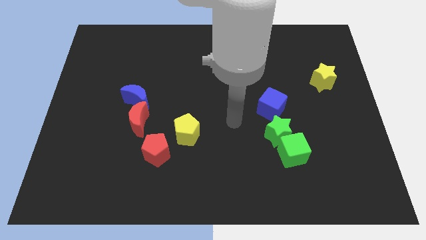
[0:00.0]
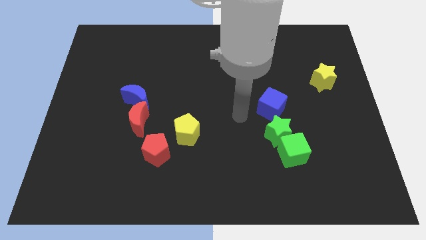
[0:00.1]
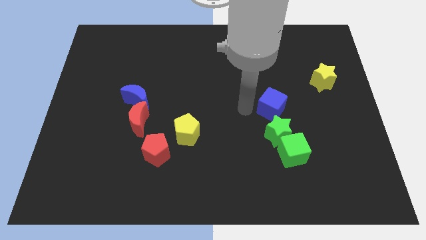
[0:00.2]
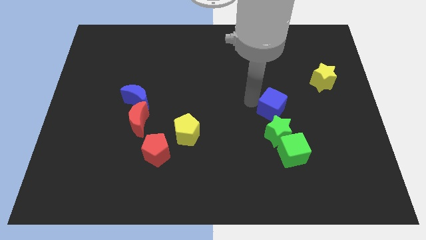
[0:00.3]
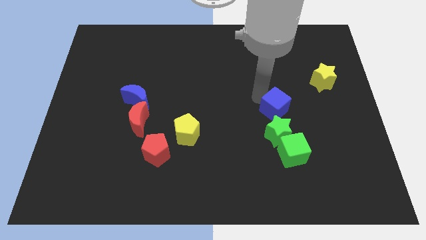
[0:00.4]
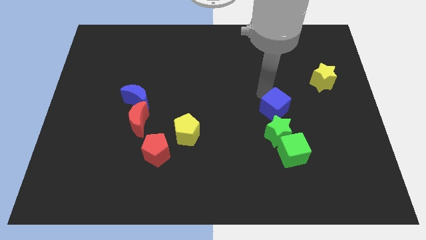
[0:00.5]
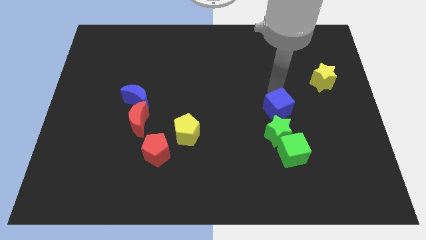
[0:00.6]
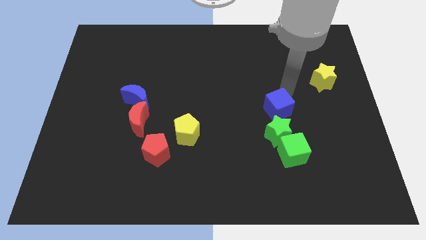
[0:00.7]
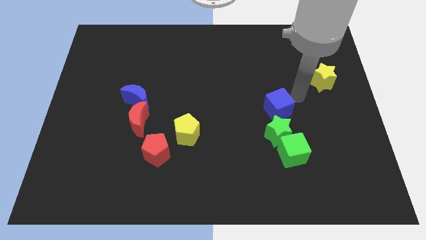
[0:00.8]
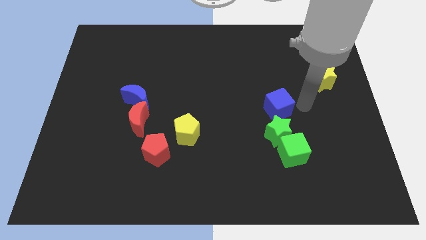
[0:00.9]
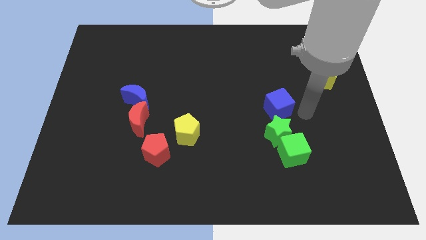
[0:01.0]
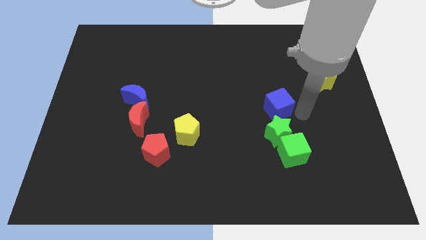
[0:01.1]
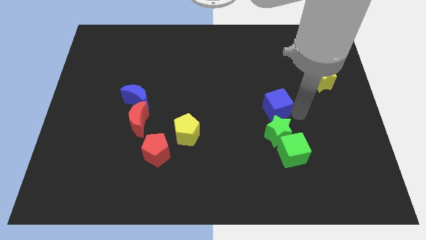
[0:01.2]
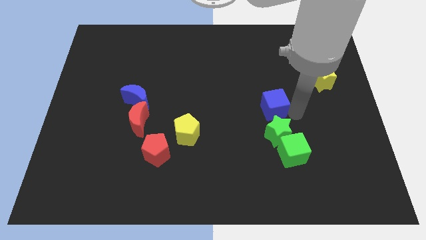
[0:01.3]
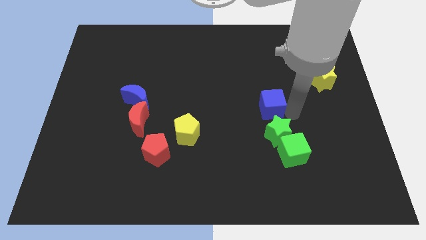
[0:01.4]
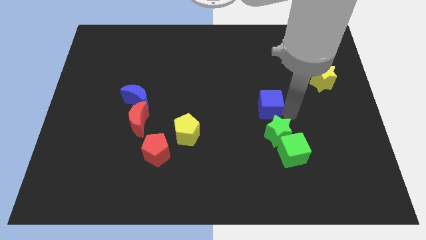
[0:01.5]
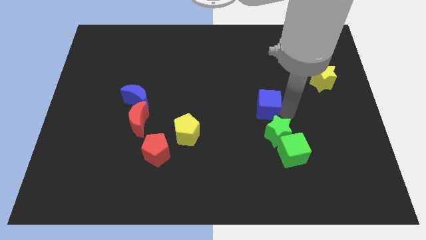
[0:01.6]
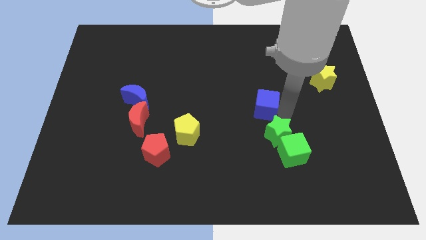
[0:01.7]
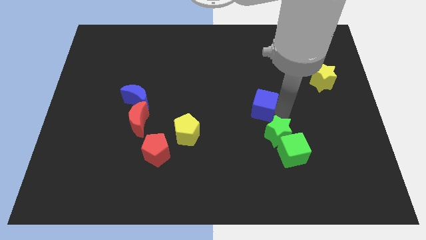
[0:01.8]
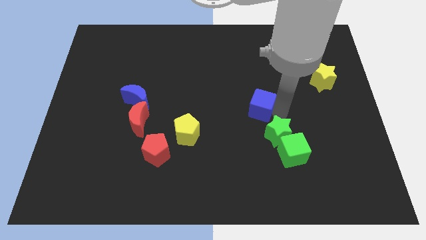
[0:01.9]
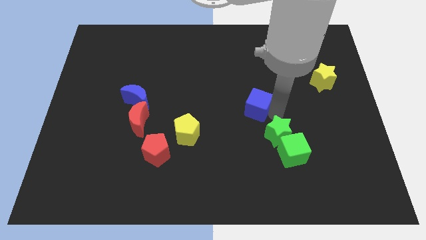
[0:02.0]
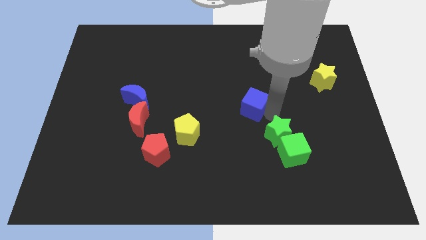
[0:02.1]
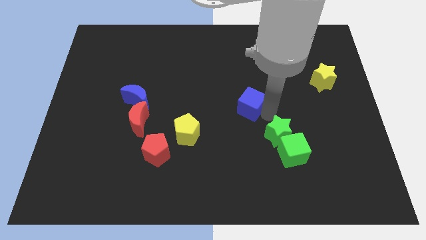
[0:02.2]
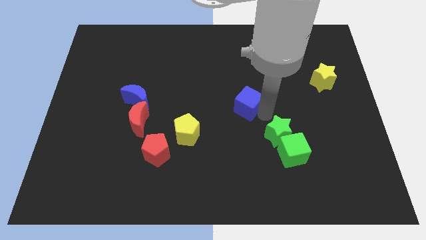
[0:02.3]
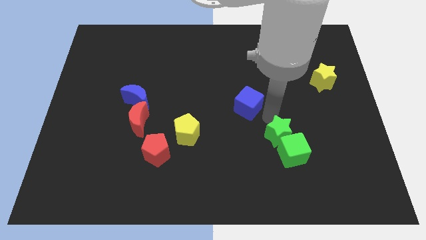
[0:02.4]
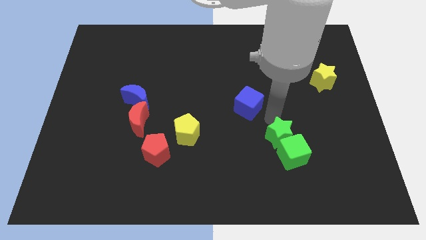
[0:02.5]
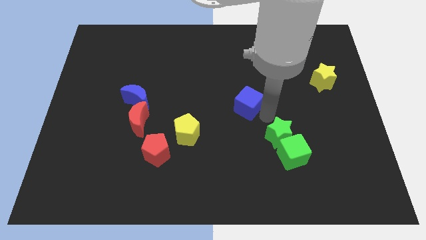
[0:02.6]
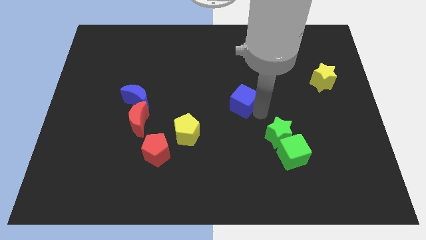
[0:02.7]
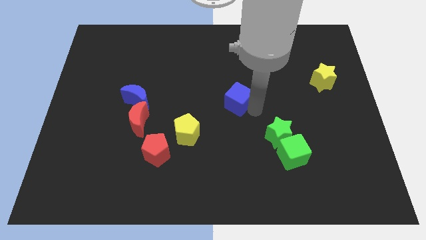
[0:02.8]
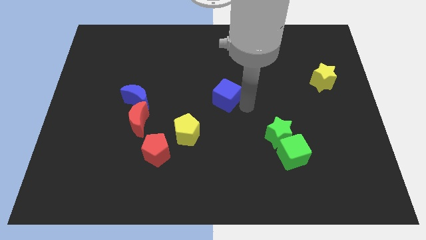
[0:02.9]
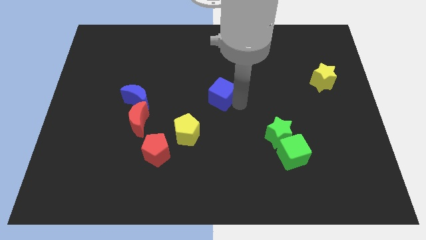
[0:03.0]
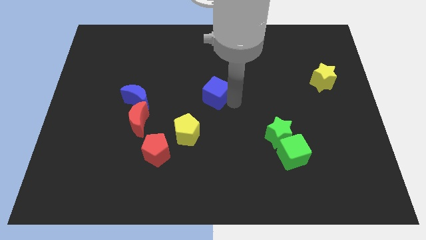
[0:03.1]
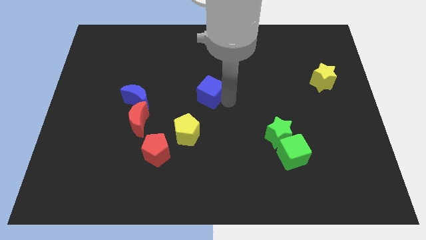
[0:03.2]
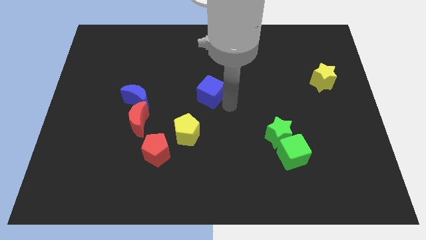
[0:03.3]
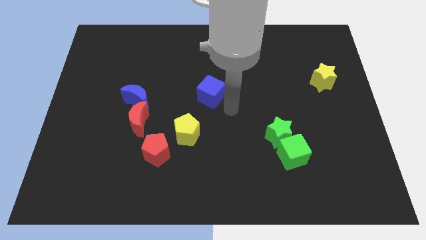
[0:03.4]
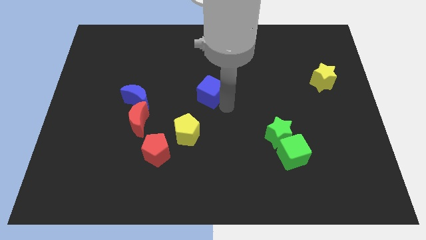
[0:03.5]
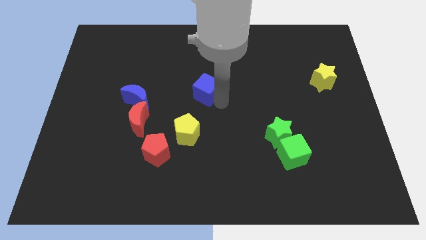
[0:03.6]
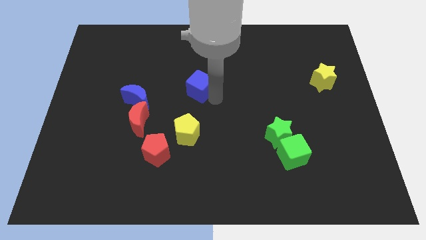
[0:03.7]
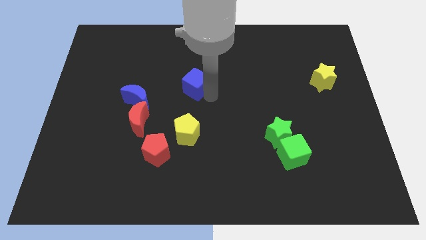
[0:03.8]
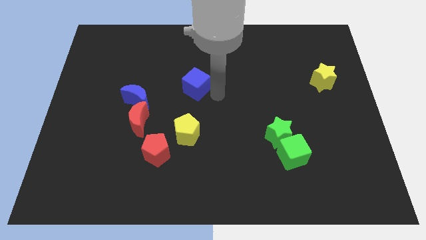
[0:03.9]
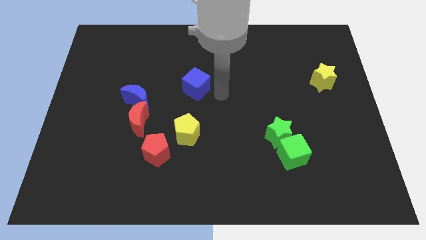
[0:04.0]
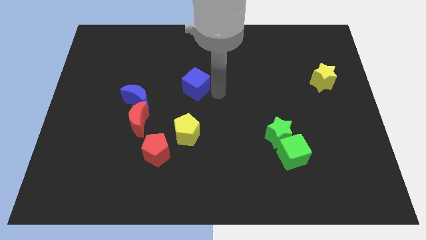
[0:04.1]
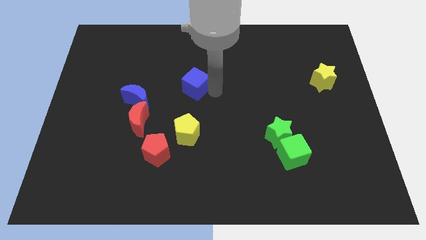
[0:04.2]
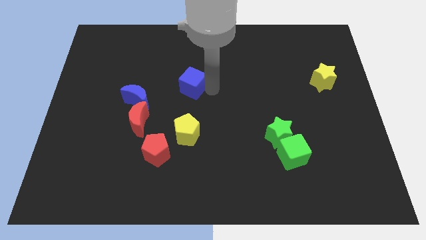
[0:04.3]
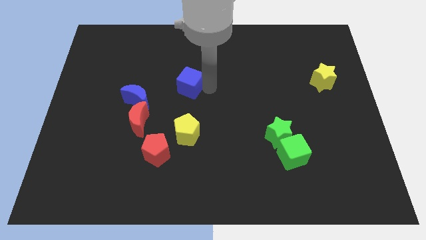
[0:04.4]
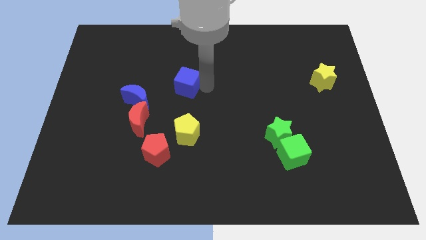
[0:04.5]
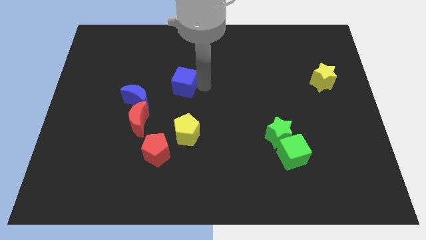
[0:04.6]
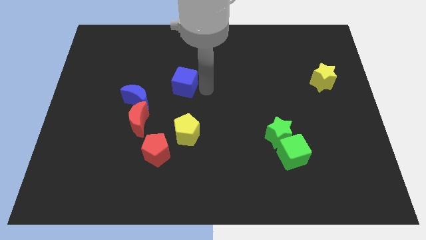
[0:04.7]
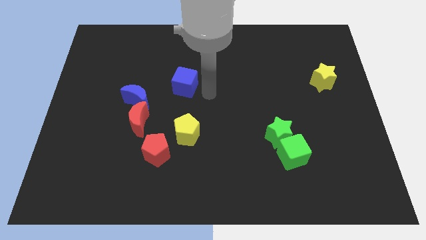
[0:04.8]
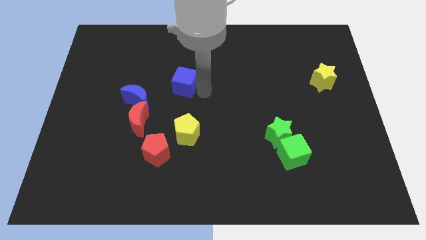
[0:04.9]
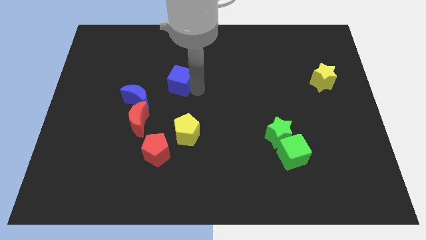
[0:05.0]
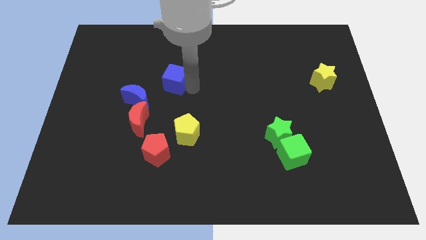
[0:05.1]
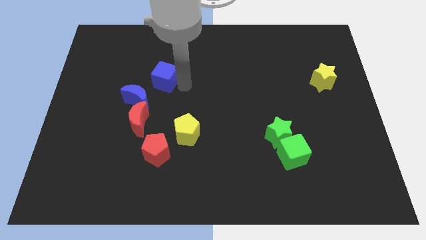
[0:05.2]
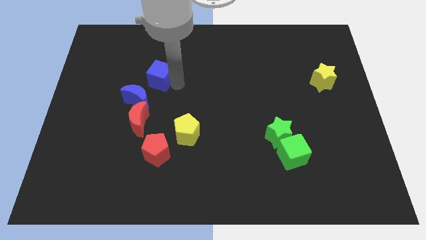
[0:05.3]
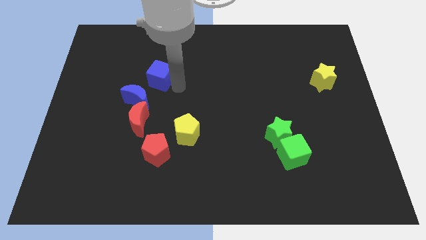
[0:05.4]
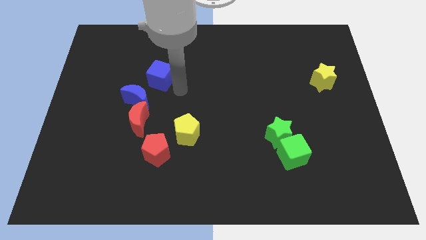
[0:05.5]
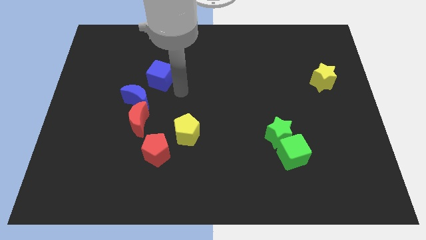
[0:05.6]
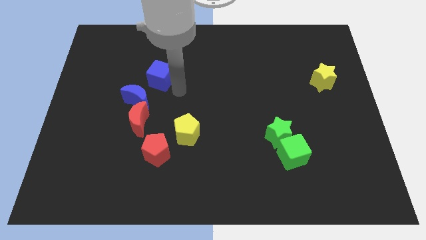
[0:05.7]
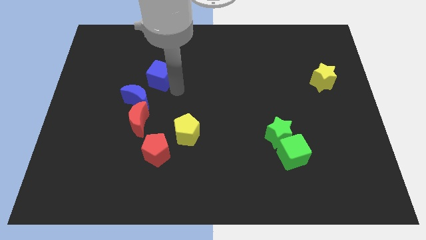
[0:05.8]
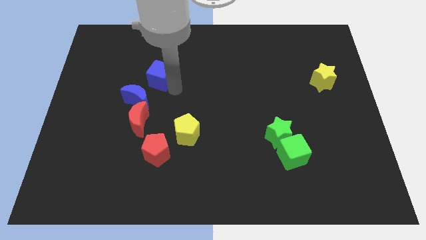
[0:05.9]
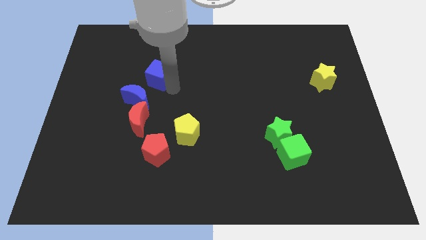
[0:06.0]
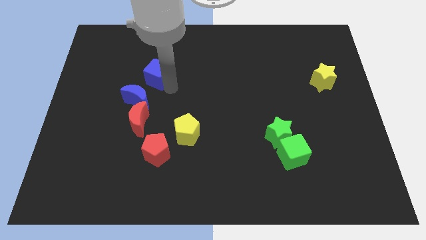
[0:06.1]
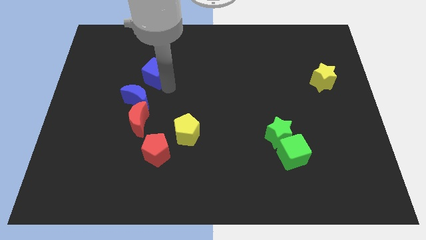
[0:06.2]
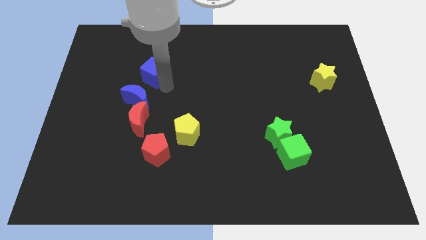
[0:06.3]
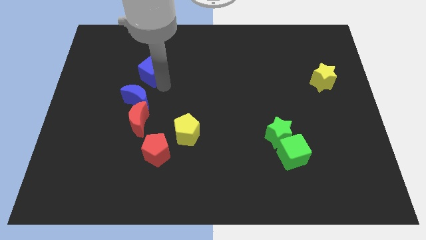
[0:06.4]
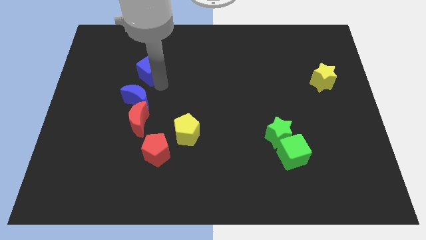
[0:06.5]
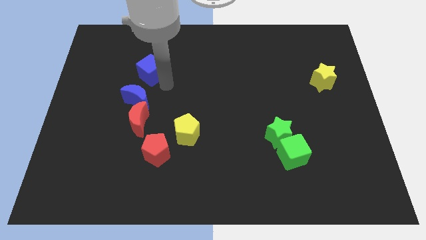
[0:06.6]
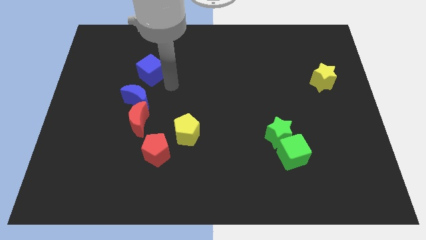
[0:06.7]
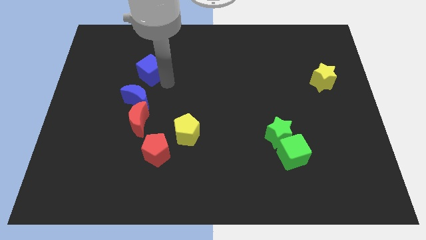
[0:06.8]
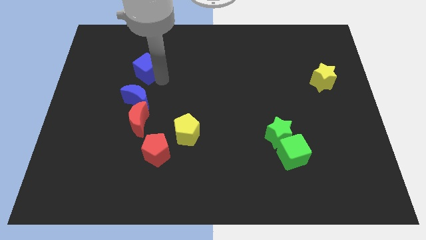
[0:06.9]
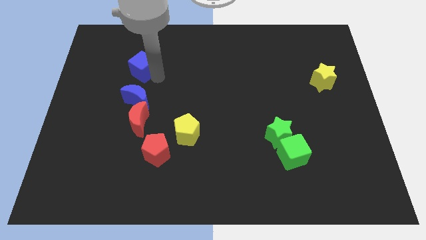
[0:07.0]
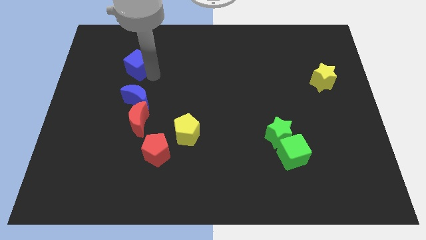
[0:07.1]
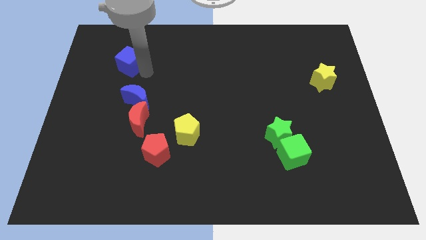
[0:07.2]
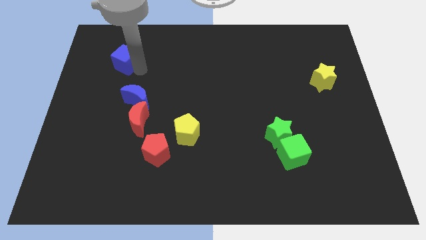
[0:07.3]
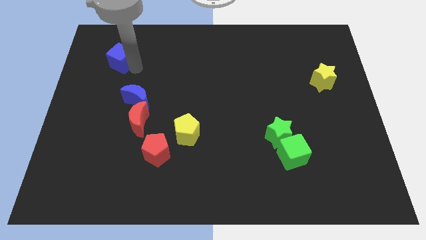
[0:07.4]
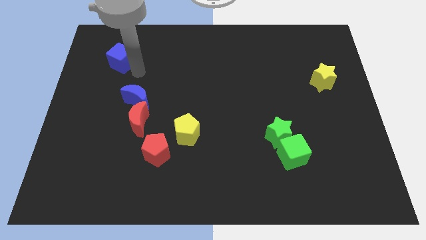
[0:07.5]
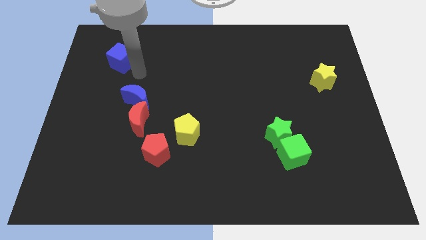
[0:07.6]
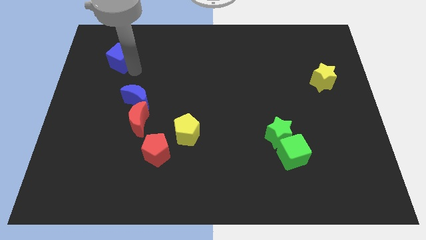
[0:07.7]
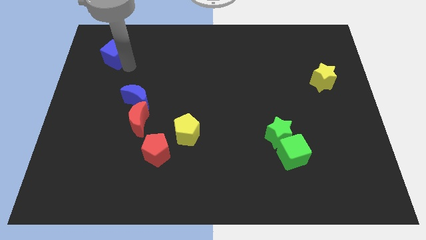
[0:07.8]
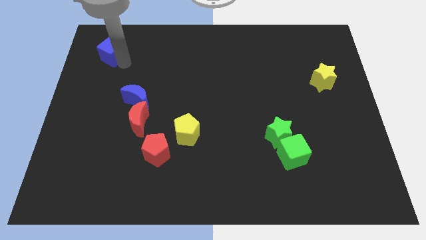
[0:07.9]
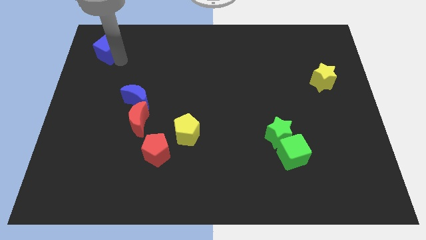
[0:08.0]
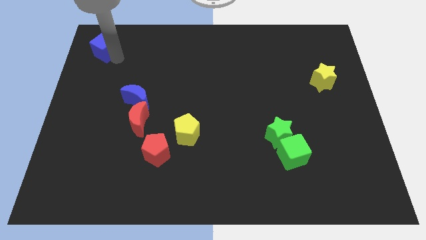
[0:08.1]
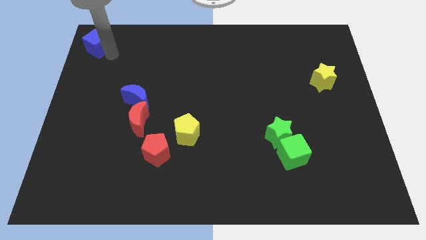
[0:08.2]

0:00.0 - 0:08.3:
push the blue cube to the top left
